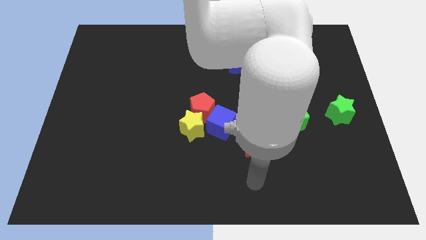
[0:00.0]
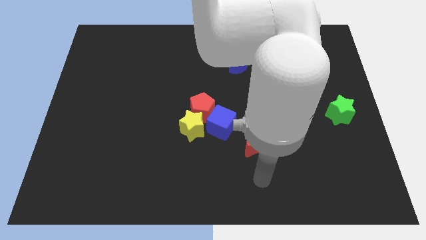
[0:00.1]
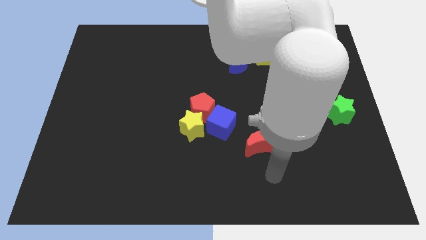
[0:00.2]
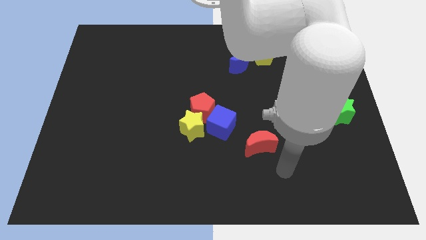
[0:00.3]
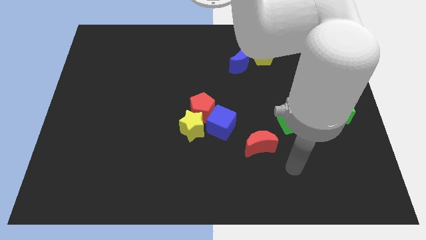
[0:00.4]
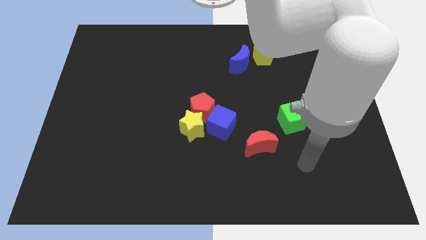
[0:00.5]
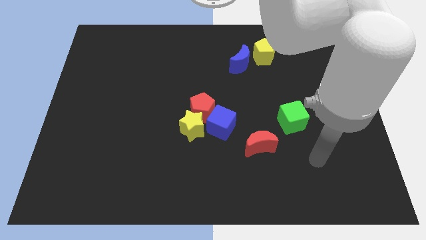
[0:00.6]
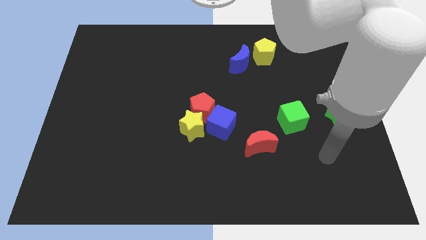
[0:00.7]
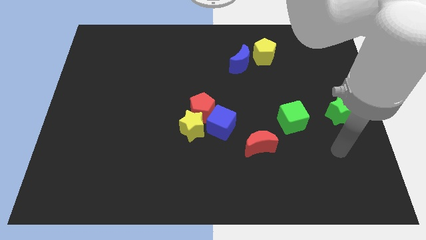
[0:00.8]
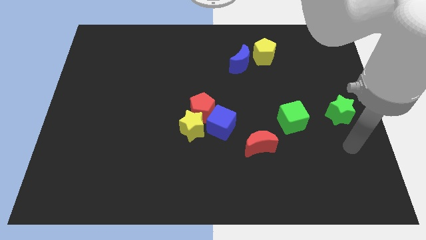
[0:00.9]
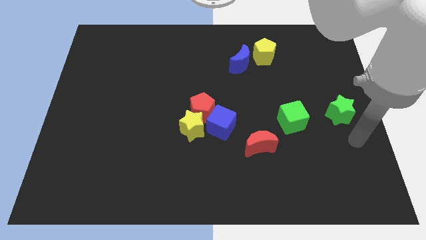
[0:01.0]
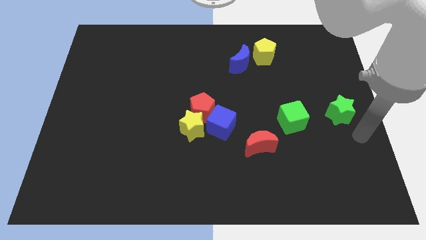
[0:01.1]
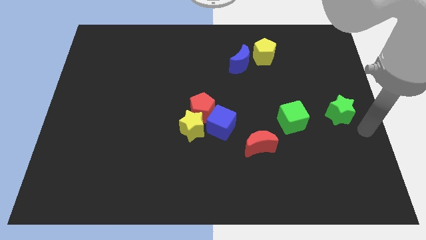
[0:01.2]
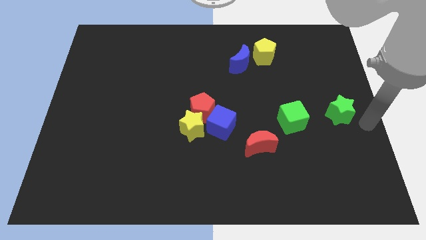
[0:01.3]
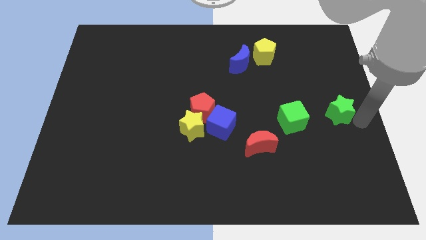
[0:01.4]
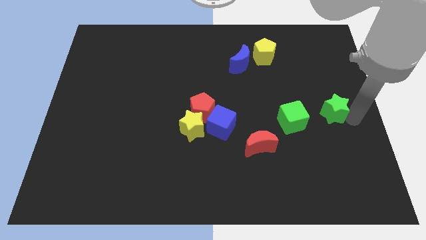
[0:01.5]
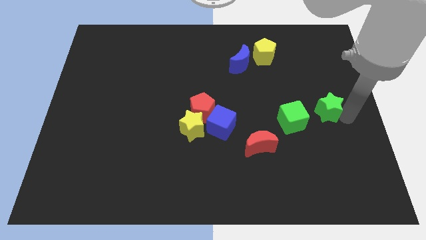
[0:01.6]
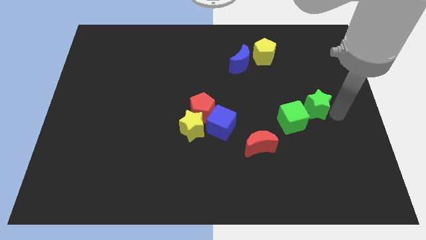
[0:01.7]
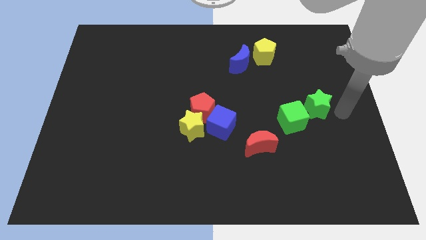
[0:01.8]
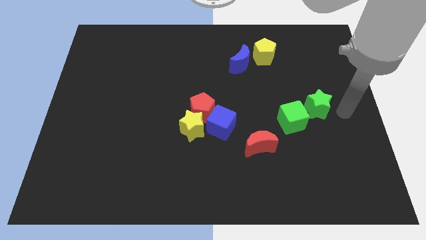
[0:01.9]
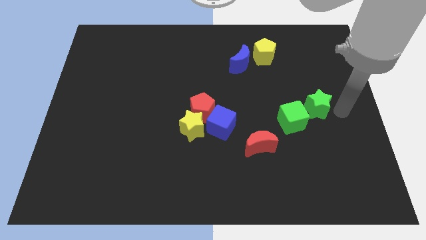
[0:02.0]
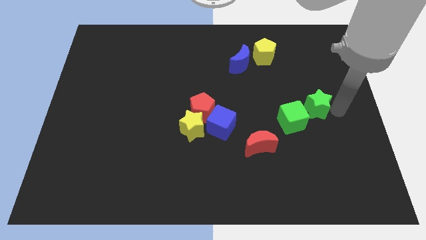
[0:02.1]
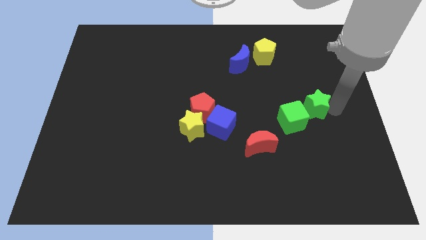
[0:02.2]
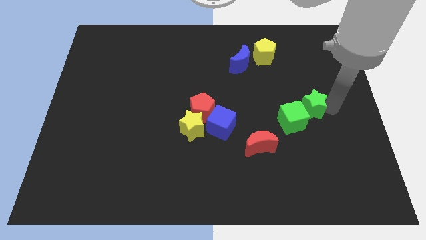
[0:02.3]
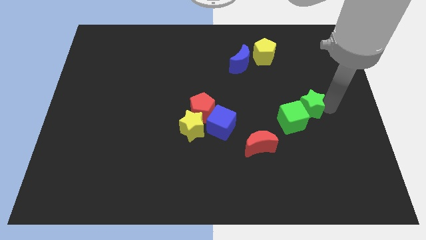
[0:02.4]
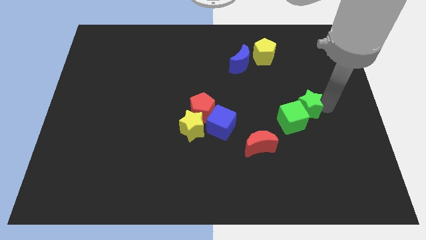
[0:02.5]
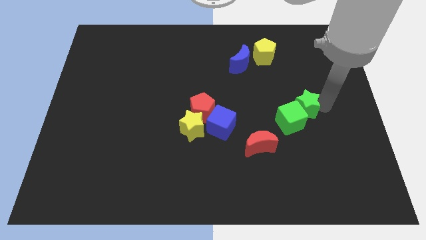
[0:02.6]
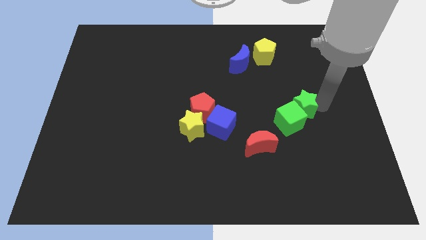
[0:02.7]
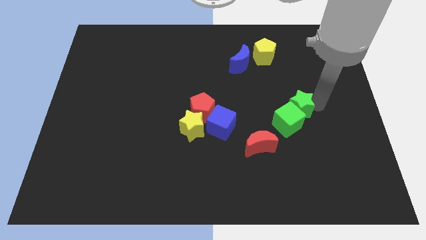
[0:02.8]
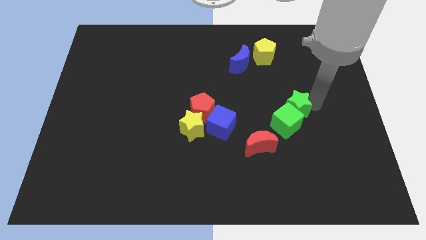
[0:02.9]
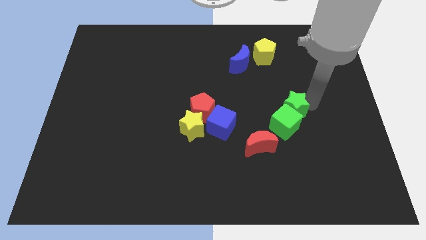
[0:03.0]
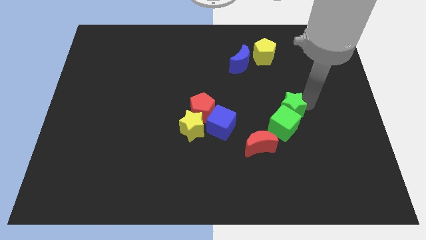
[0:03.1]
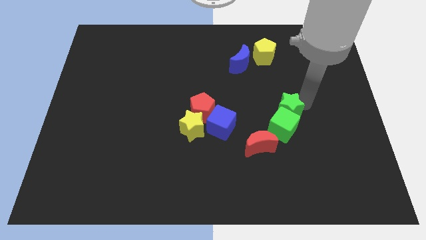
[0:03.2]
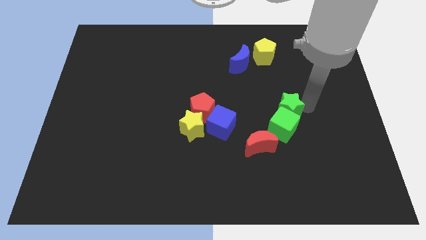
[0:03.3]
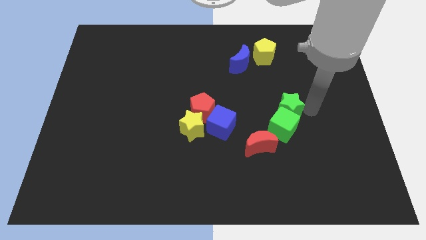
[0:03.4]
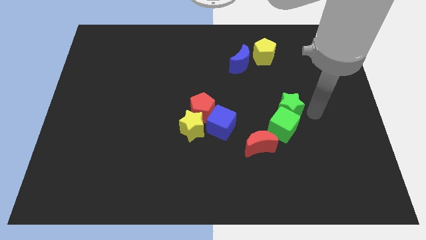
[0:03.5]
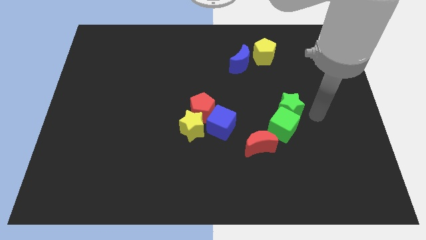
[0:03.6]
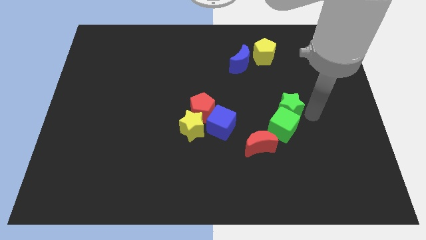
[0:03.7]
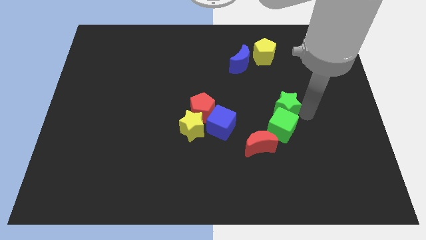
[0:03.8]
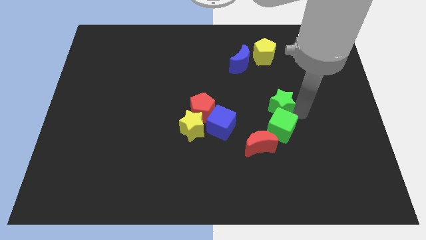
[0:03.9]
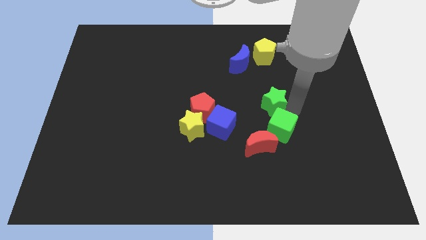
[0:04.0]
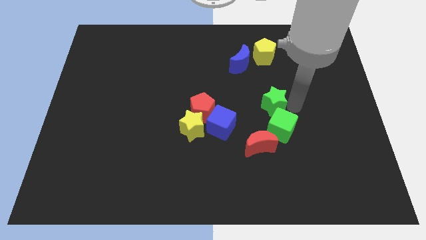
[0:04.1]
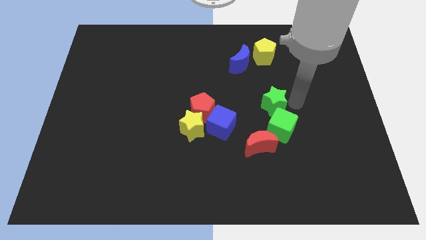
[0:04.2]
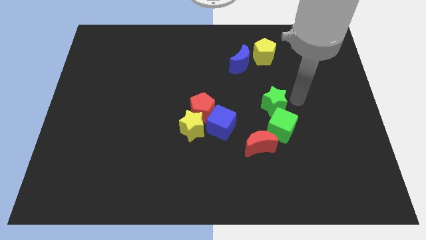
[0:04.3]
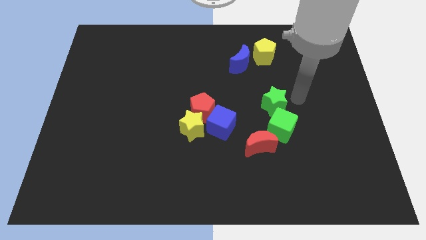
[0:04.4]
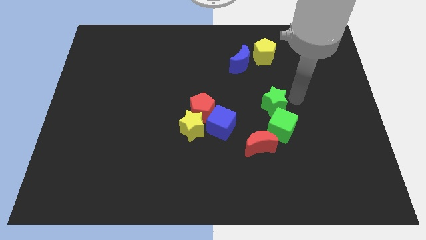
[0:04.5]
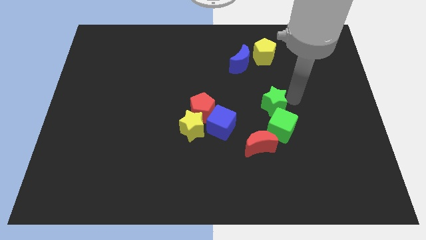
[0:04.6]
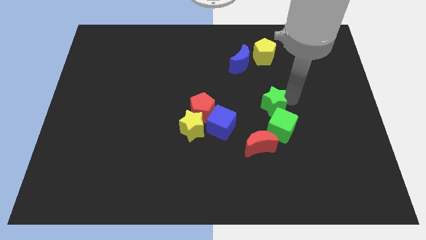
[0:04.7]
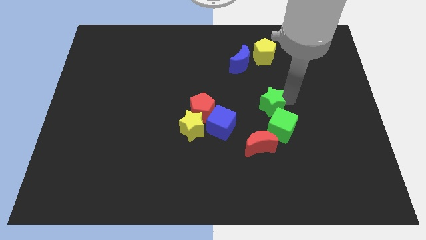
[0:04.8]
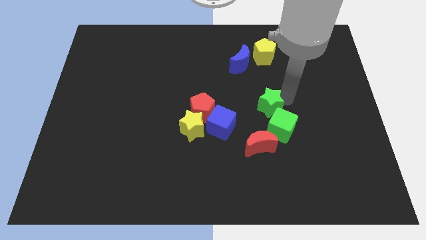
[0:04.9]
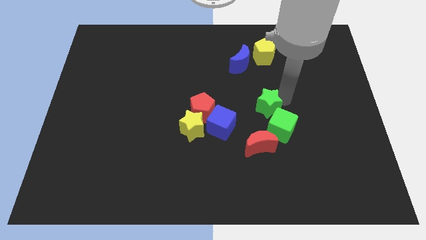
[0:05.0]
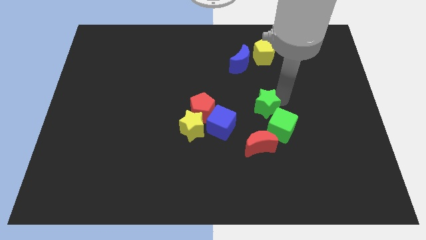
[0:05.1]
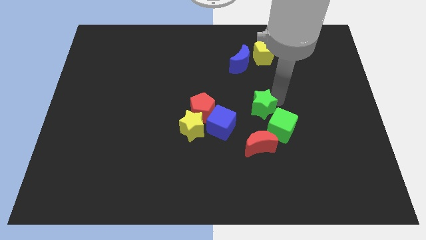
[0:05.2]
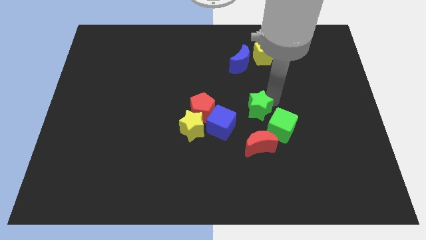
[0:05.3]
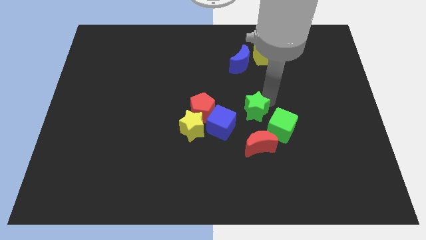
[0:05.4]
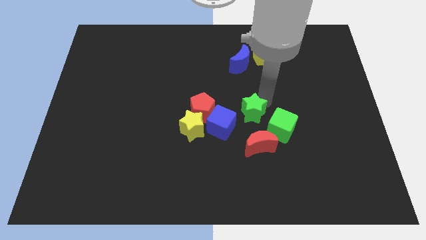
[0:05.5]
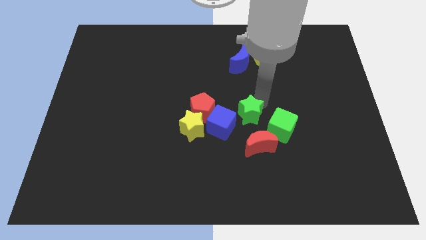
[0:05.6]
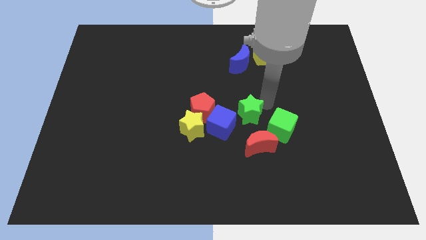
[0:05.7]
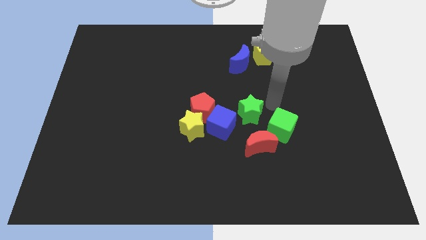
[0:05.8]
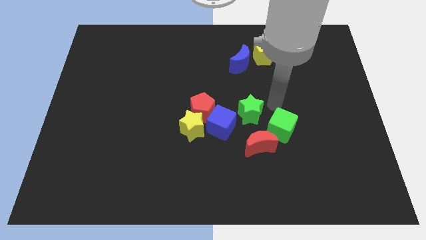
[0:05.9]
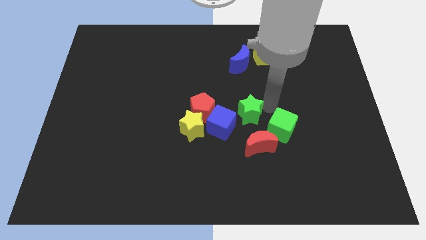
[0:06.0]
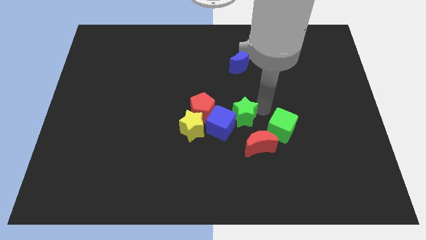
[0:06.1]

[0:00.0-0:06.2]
slide the green star towards the blue cube
